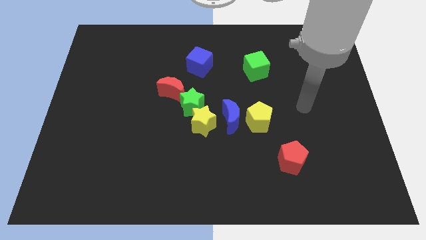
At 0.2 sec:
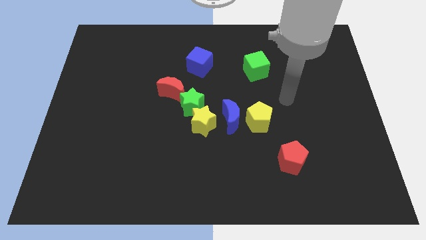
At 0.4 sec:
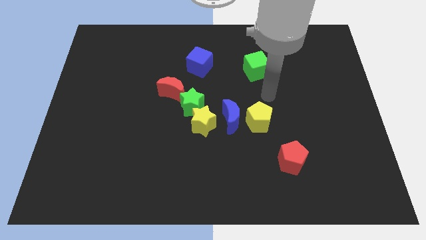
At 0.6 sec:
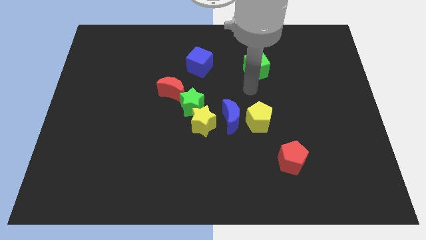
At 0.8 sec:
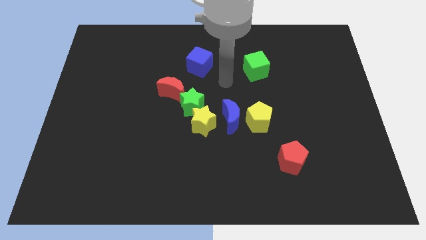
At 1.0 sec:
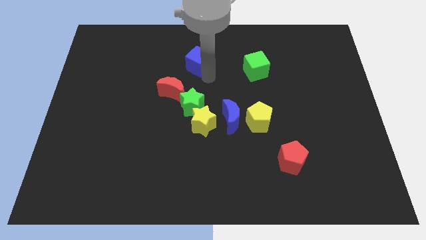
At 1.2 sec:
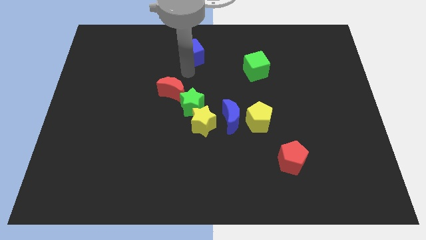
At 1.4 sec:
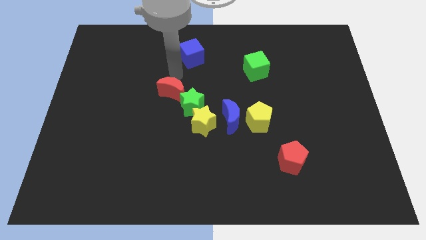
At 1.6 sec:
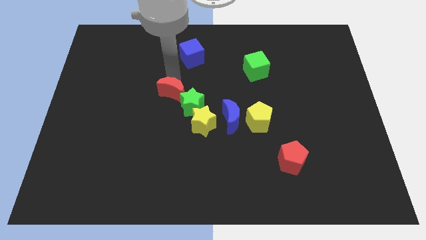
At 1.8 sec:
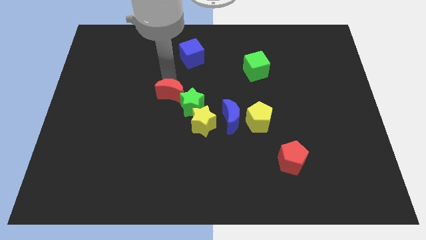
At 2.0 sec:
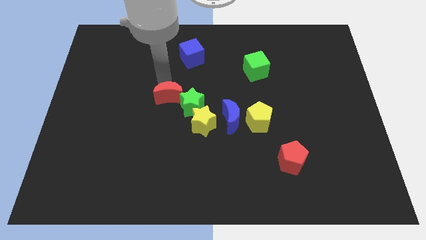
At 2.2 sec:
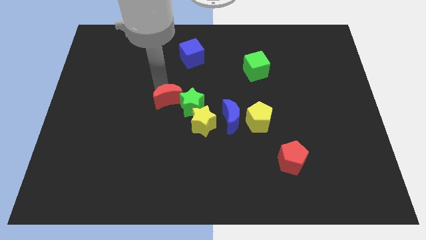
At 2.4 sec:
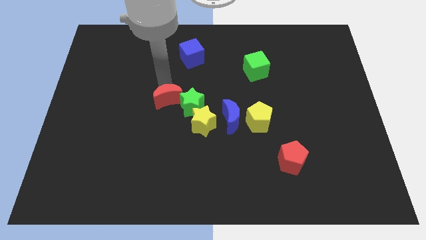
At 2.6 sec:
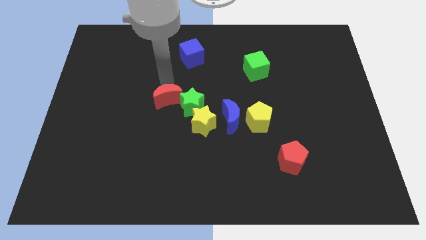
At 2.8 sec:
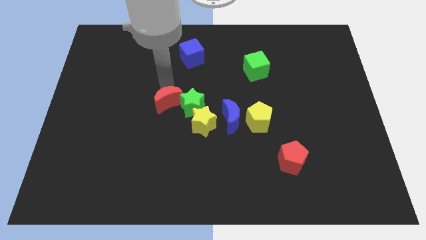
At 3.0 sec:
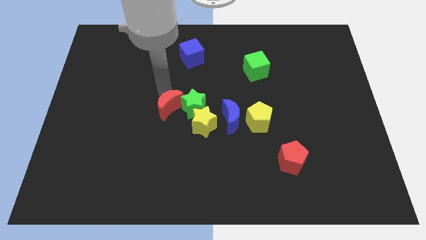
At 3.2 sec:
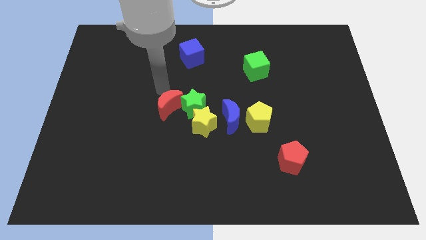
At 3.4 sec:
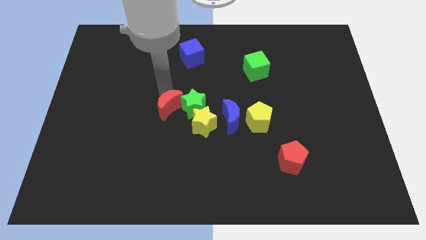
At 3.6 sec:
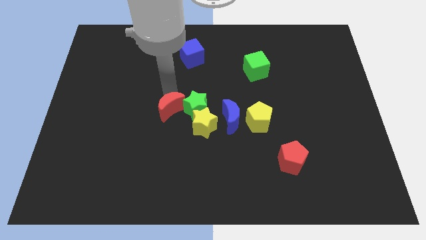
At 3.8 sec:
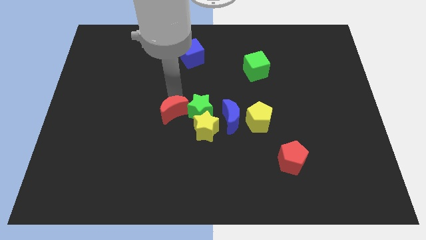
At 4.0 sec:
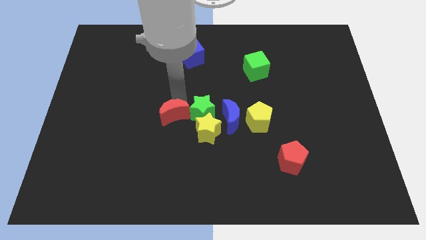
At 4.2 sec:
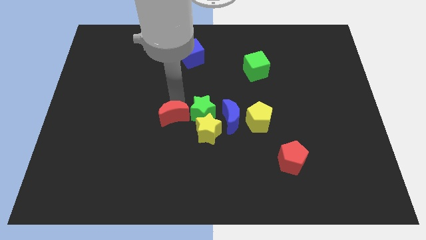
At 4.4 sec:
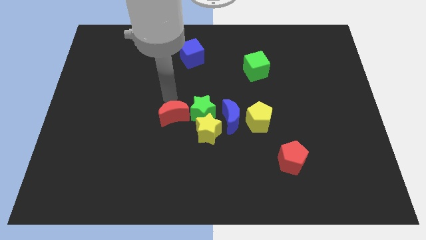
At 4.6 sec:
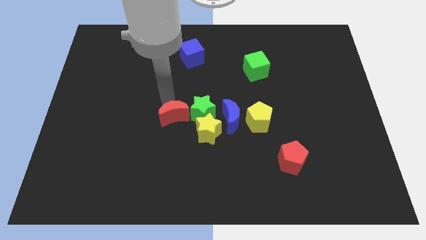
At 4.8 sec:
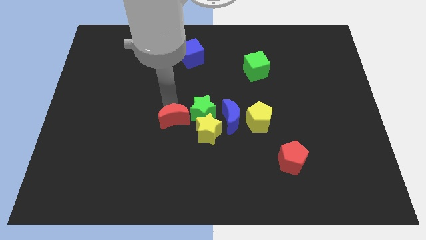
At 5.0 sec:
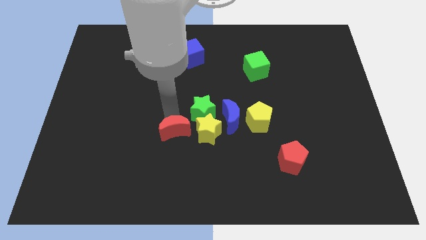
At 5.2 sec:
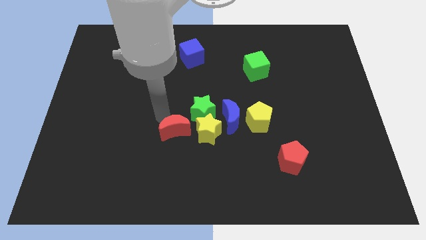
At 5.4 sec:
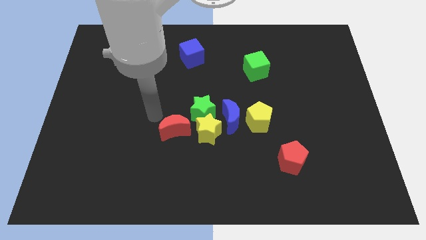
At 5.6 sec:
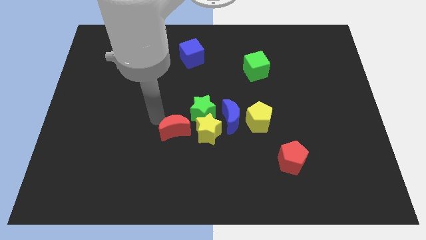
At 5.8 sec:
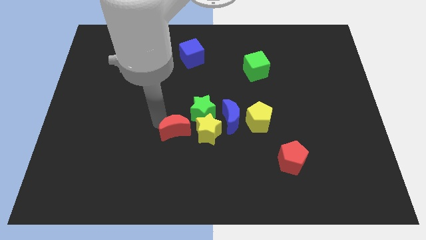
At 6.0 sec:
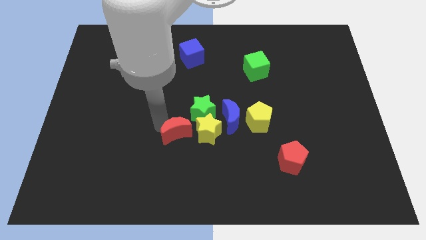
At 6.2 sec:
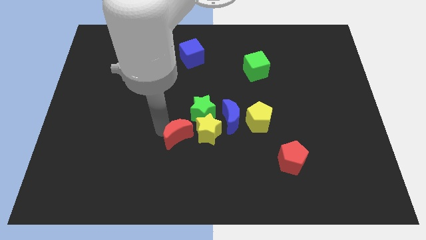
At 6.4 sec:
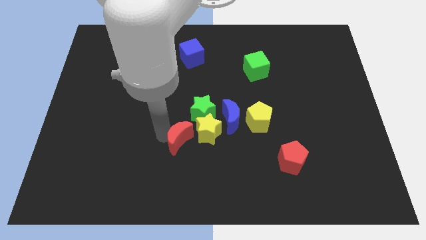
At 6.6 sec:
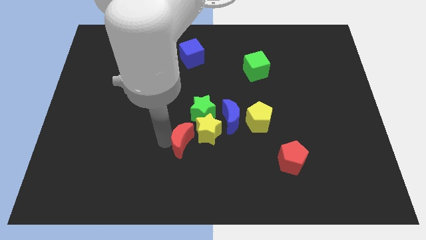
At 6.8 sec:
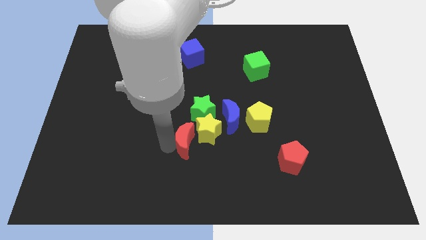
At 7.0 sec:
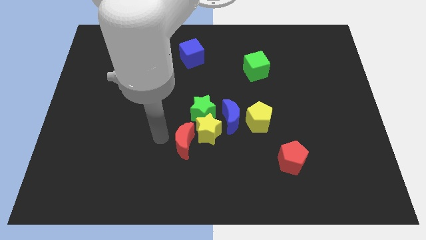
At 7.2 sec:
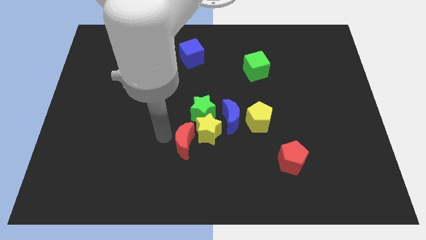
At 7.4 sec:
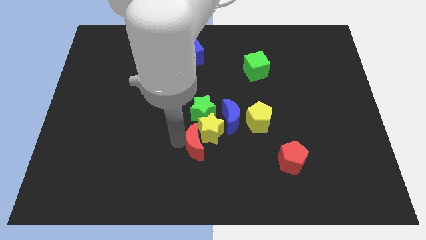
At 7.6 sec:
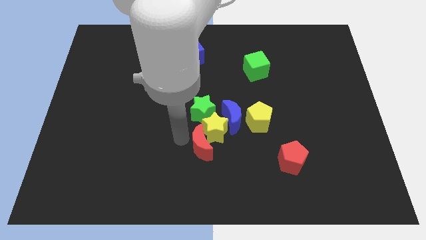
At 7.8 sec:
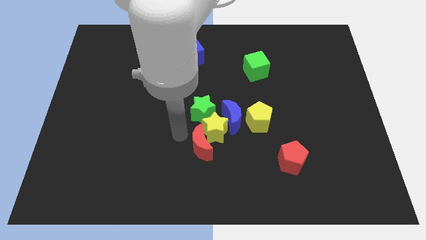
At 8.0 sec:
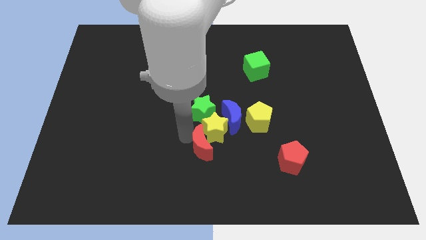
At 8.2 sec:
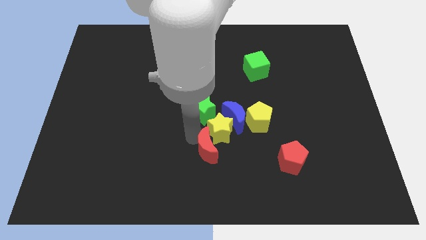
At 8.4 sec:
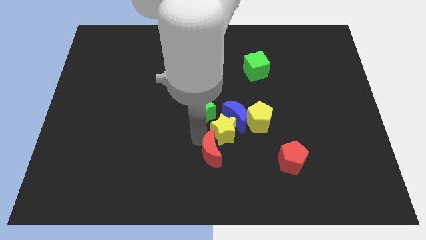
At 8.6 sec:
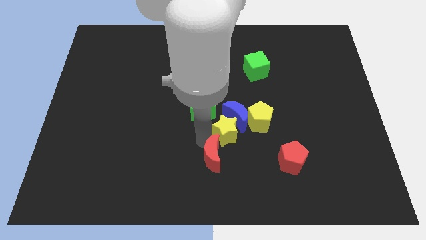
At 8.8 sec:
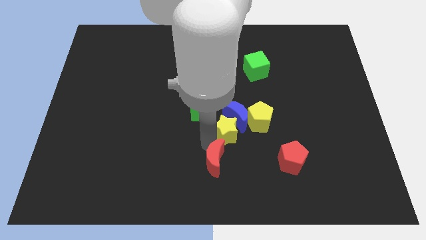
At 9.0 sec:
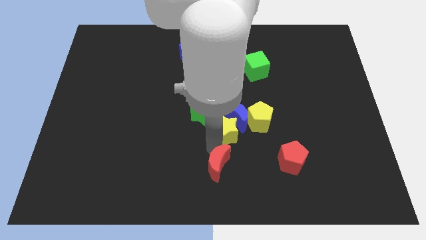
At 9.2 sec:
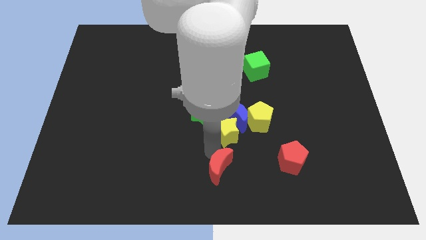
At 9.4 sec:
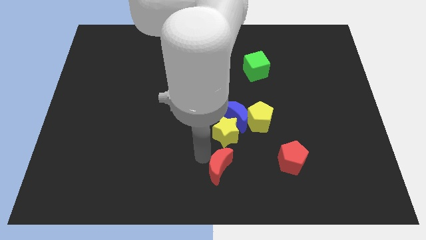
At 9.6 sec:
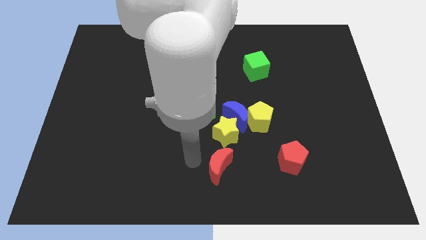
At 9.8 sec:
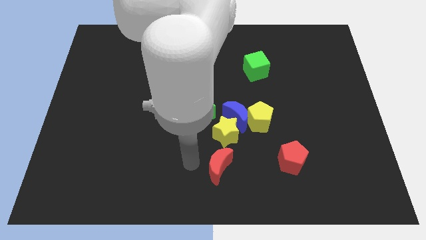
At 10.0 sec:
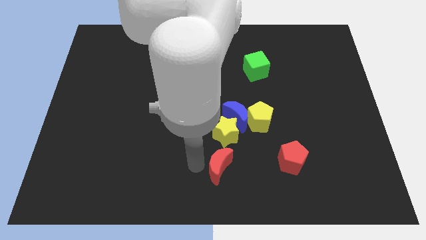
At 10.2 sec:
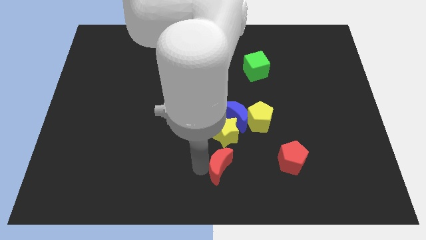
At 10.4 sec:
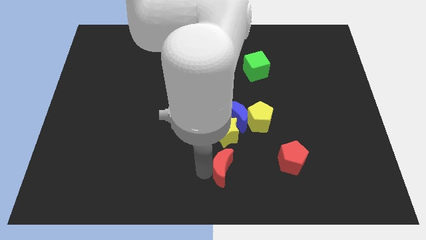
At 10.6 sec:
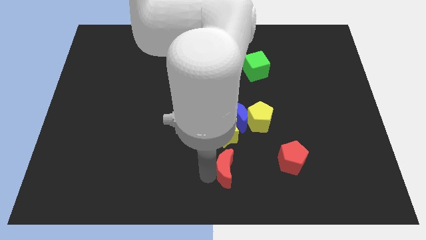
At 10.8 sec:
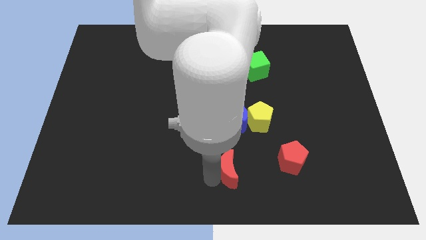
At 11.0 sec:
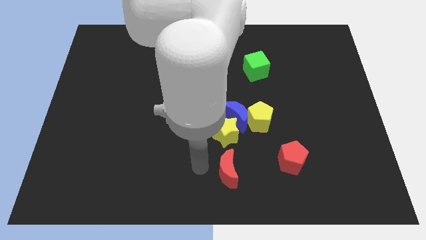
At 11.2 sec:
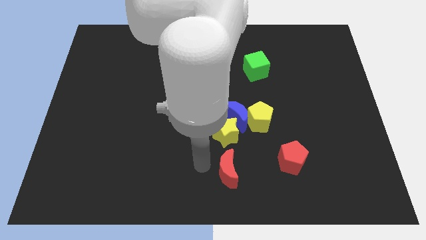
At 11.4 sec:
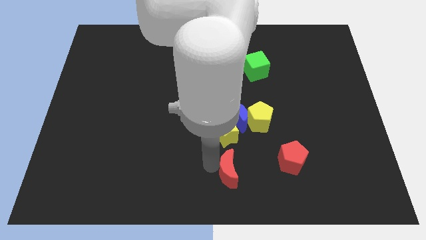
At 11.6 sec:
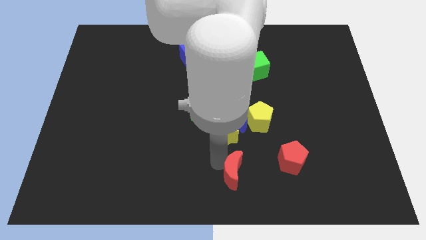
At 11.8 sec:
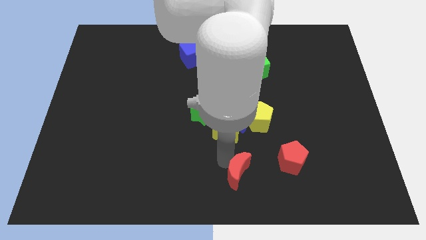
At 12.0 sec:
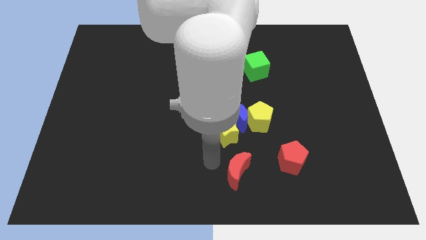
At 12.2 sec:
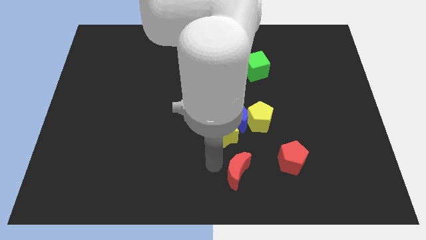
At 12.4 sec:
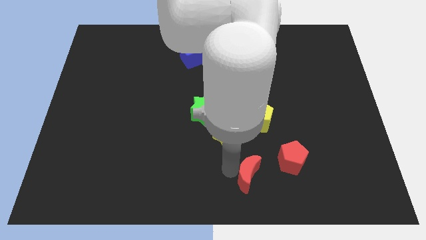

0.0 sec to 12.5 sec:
move the red moon to the bottom left side of the red pentagon

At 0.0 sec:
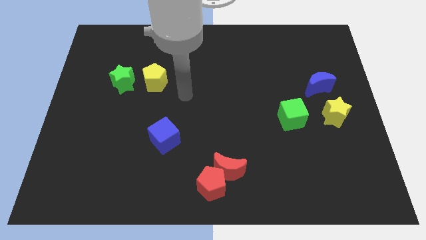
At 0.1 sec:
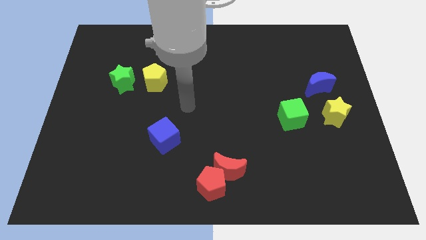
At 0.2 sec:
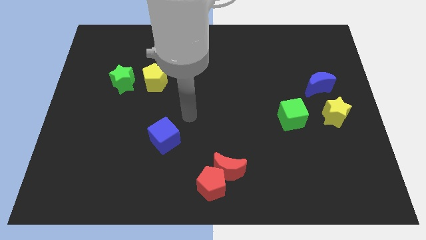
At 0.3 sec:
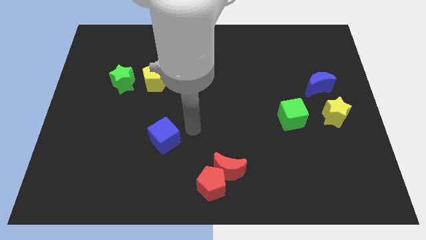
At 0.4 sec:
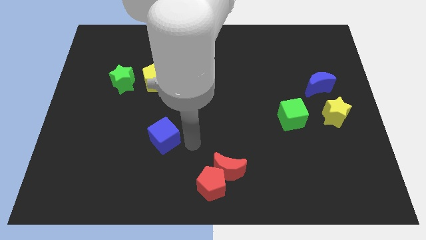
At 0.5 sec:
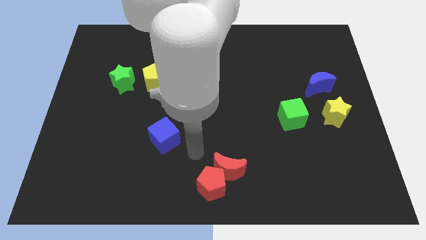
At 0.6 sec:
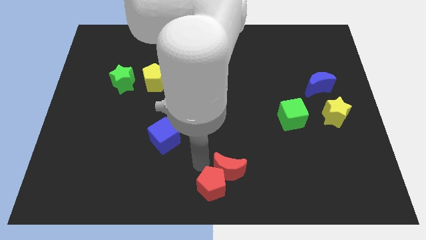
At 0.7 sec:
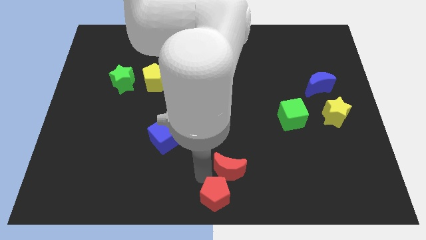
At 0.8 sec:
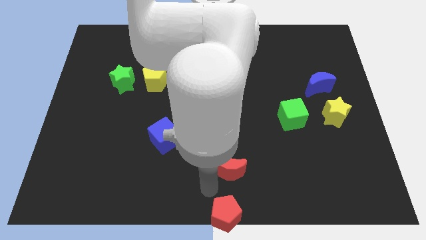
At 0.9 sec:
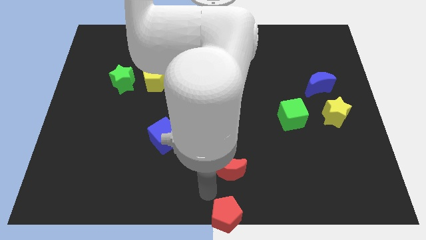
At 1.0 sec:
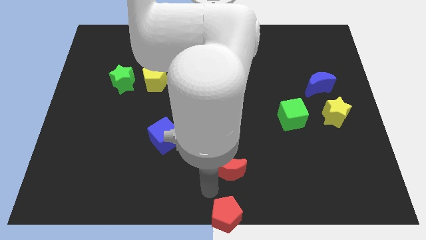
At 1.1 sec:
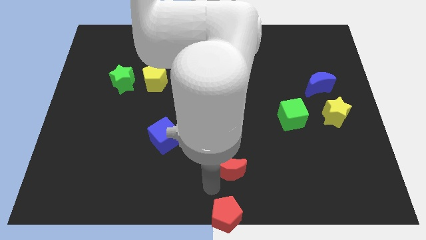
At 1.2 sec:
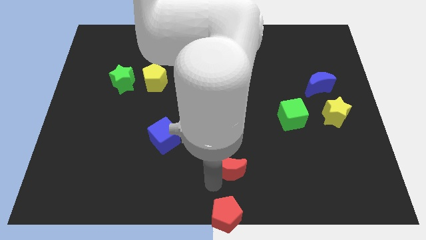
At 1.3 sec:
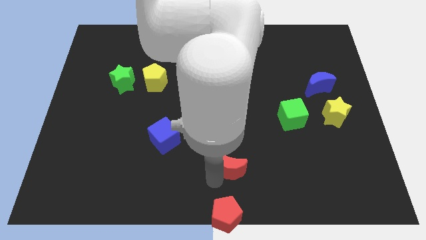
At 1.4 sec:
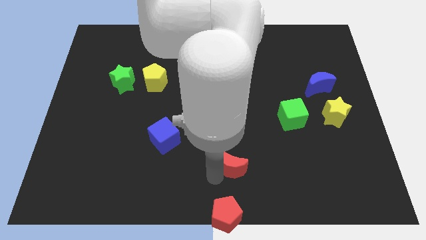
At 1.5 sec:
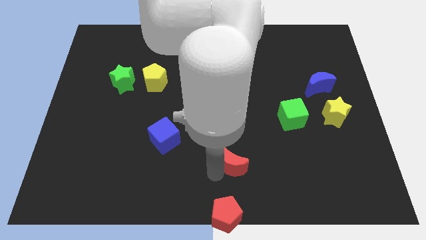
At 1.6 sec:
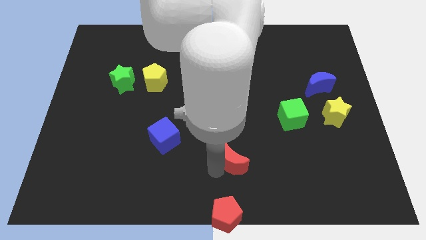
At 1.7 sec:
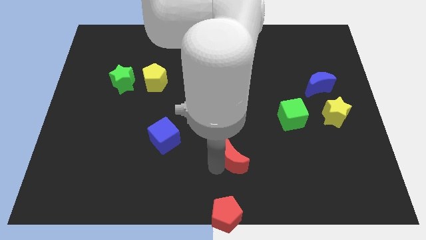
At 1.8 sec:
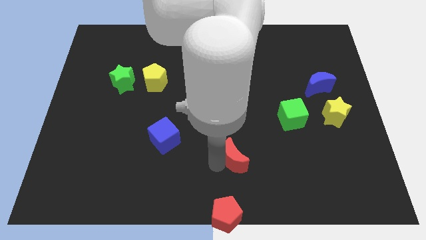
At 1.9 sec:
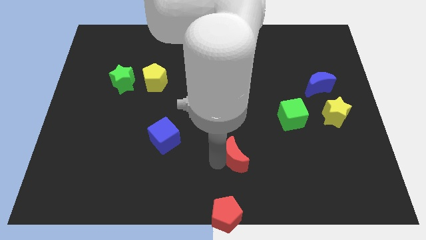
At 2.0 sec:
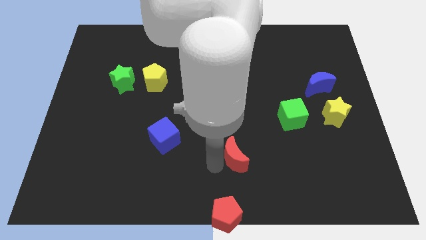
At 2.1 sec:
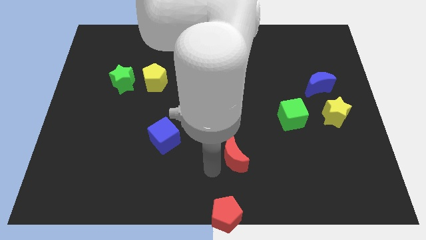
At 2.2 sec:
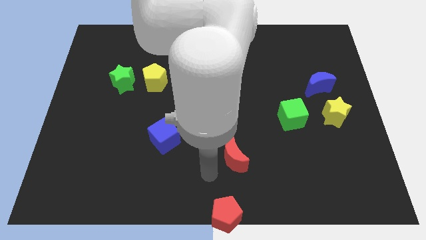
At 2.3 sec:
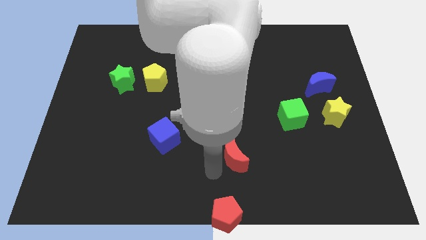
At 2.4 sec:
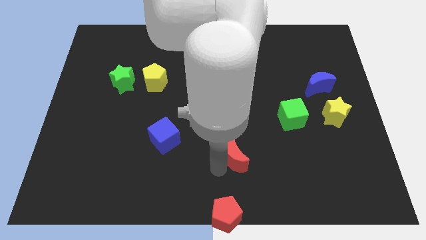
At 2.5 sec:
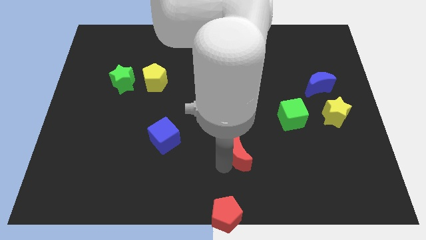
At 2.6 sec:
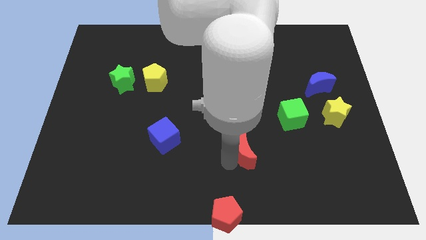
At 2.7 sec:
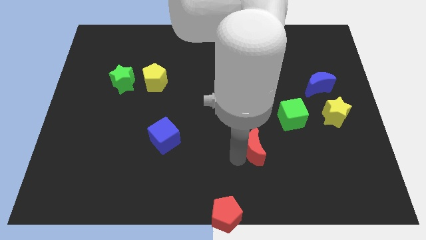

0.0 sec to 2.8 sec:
push the red moon to the bottom left of the green cube
